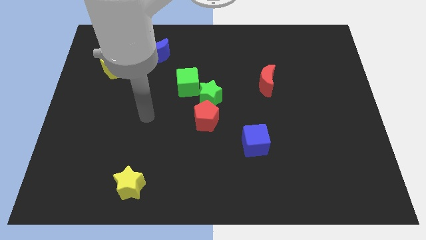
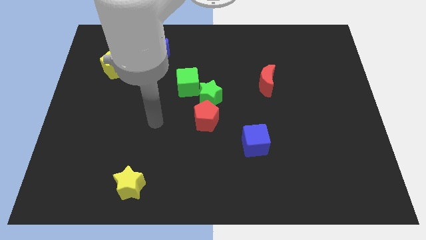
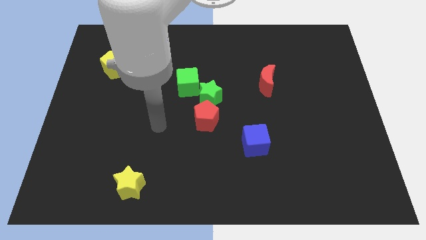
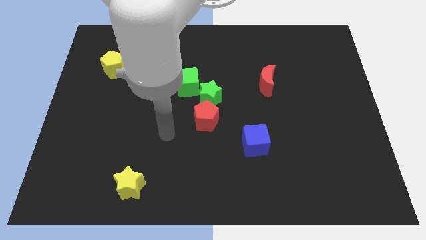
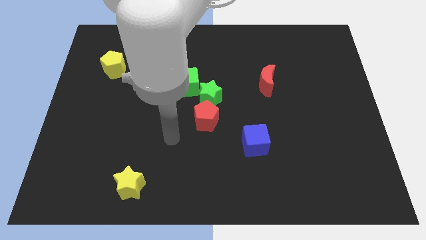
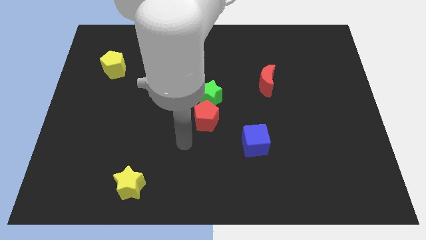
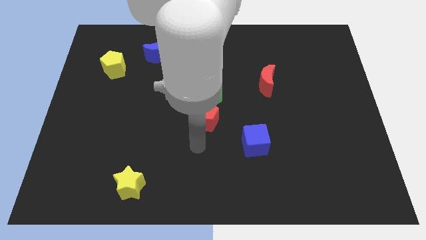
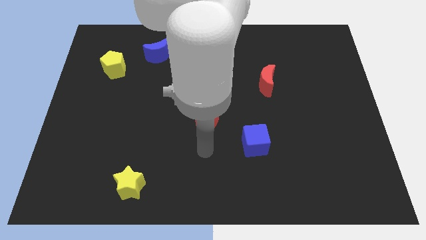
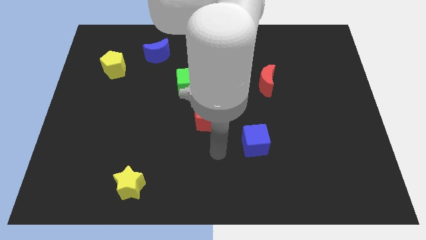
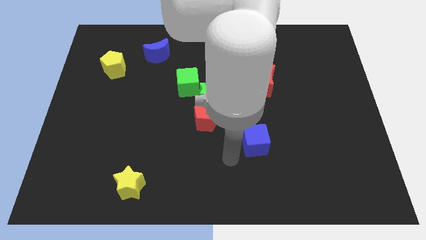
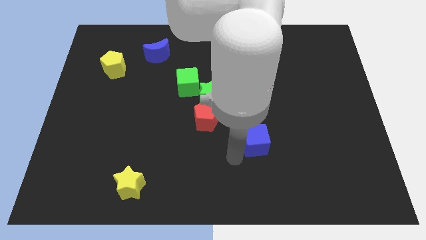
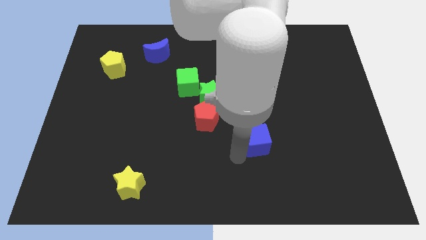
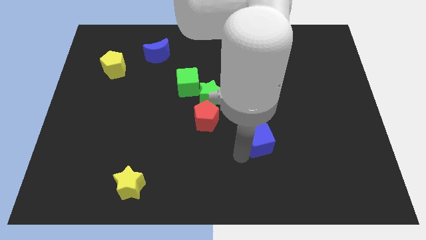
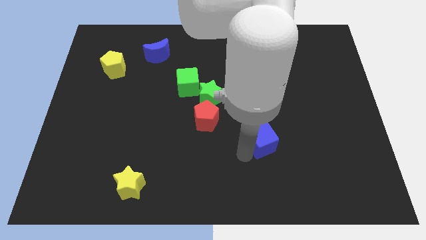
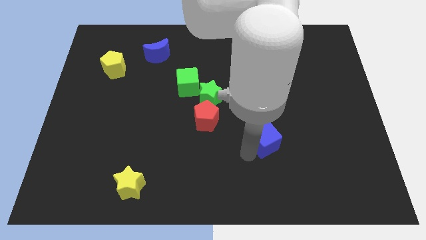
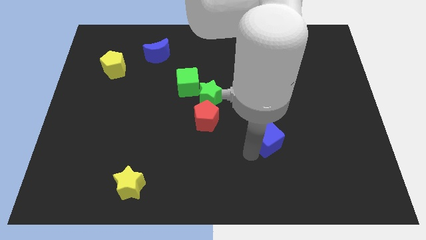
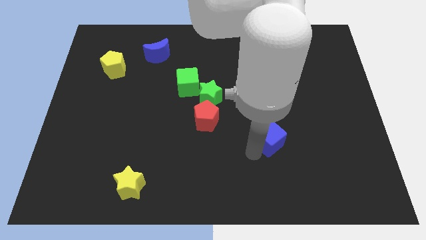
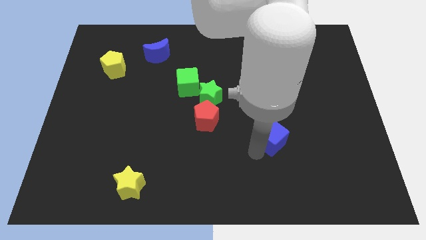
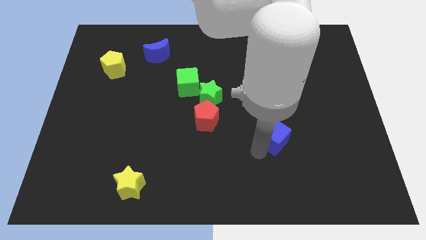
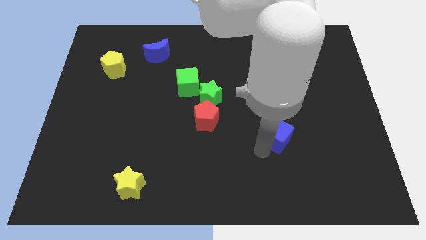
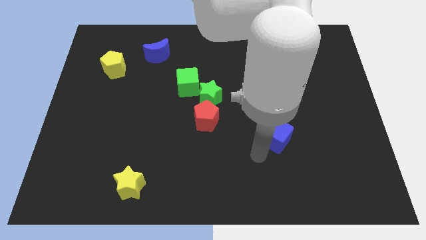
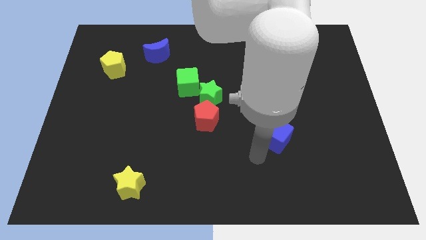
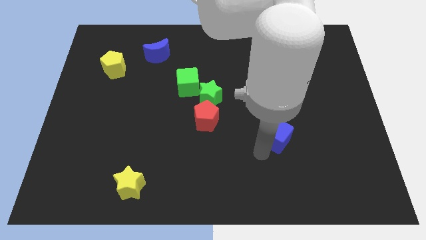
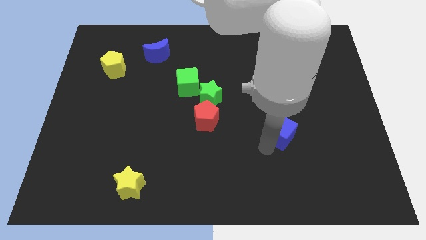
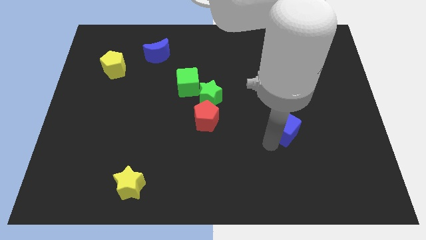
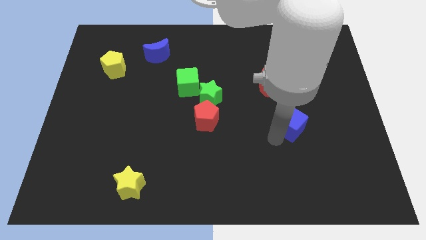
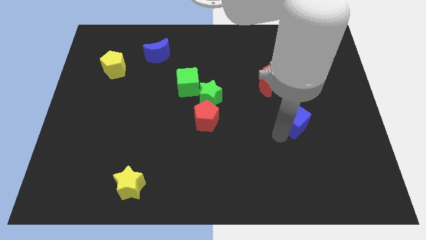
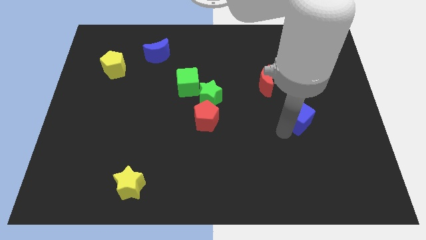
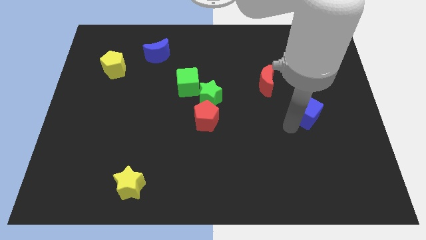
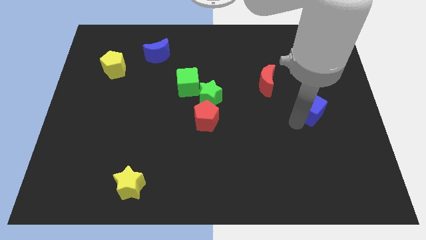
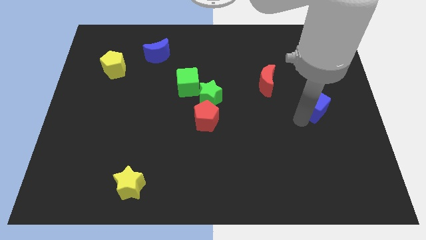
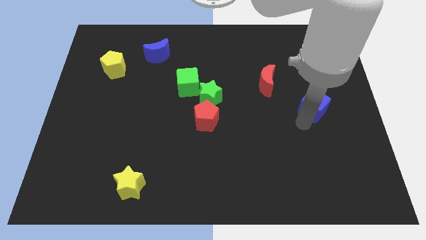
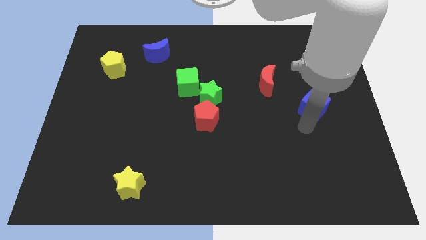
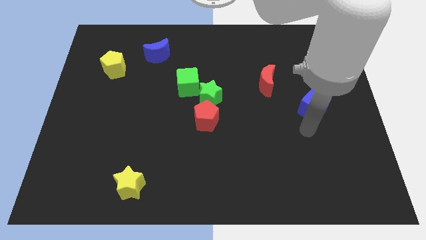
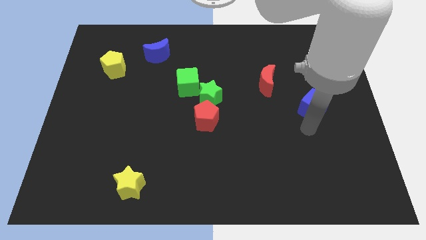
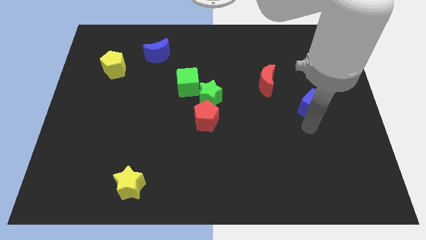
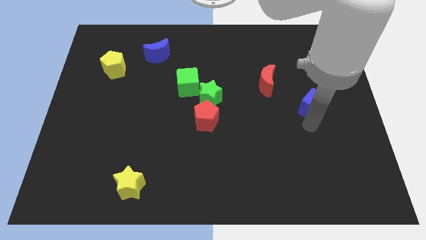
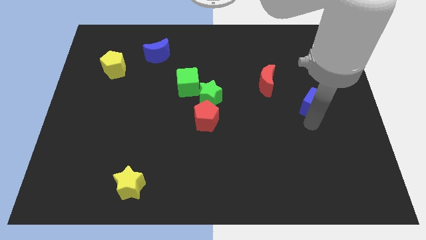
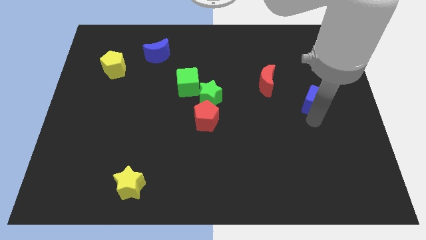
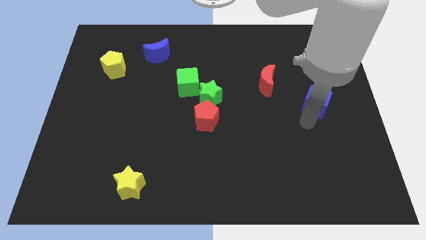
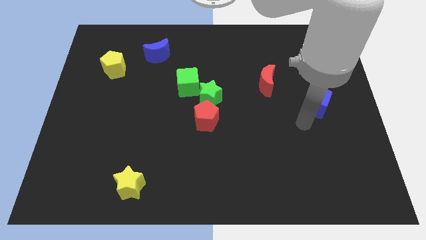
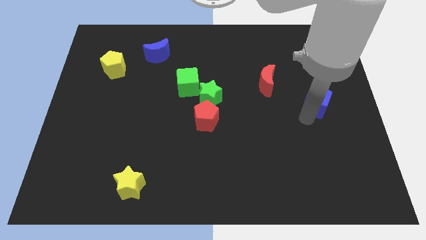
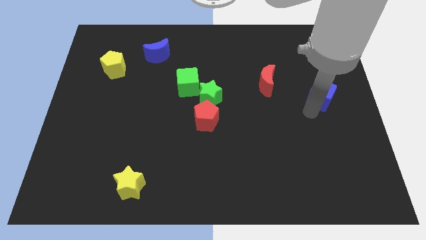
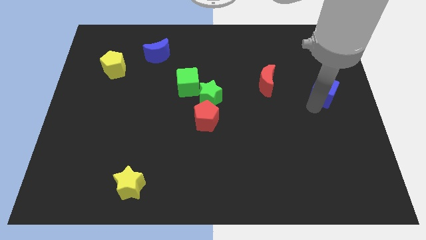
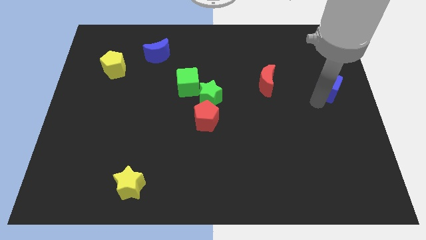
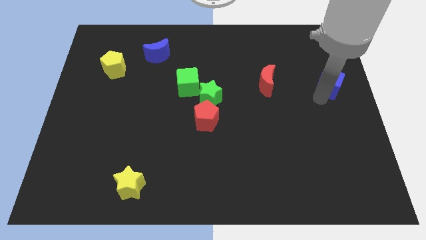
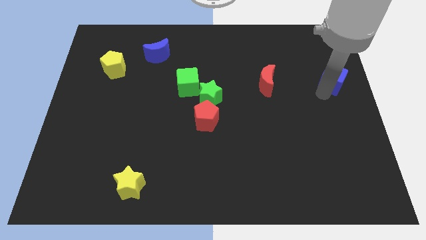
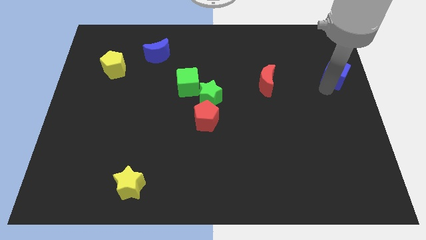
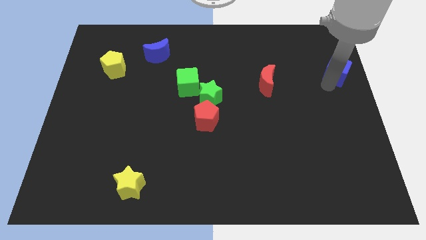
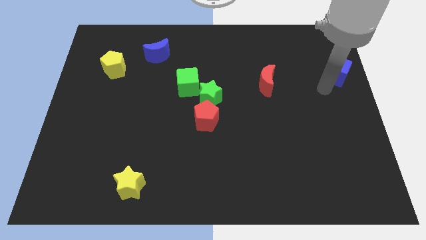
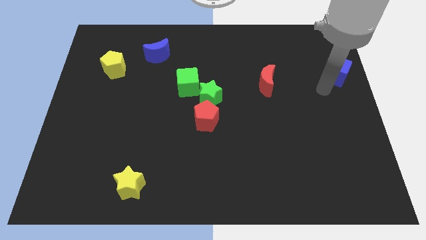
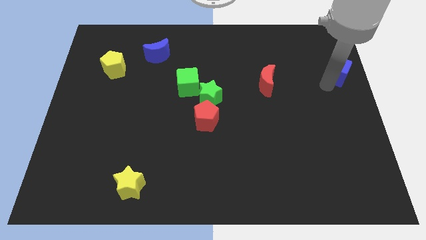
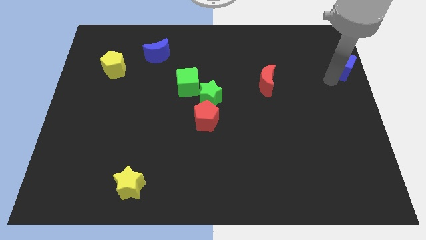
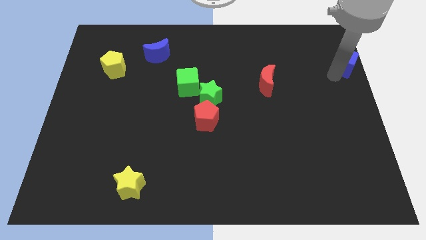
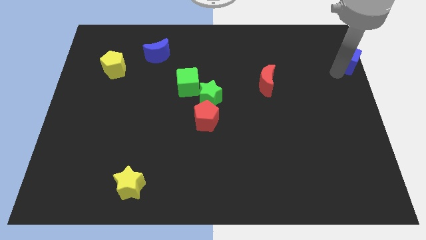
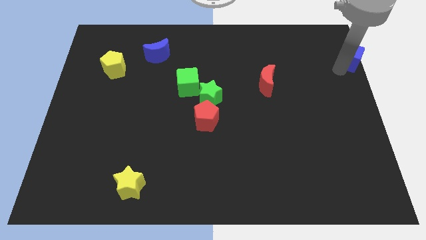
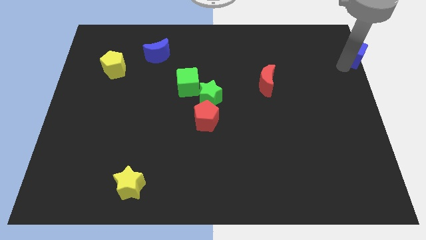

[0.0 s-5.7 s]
put the blue cube to the top right corner
